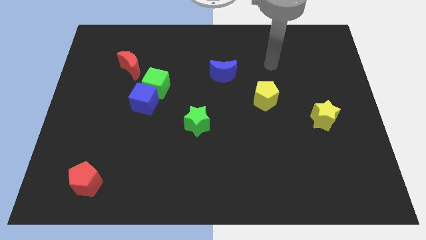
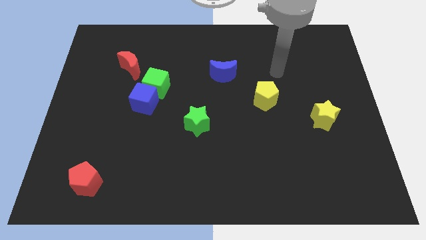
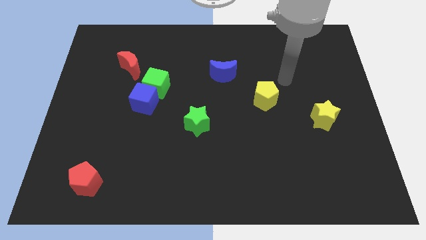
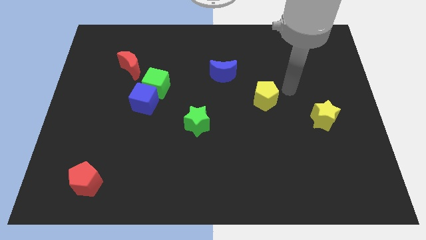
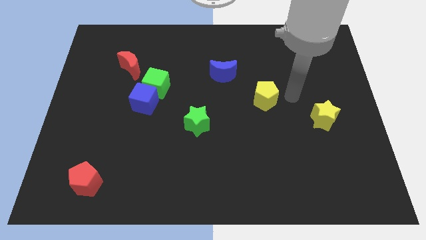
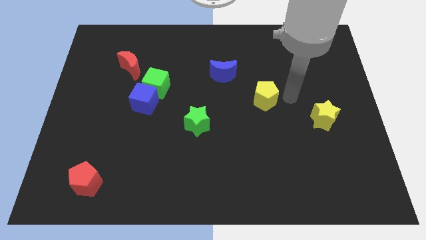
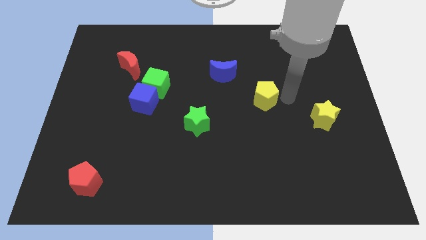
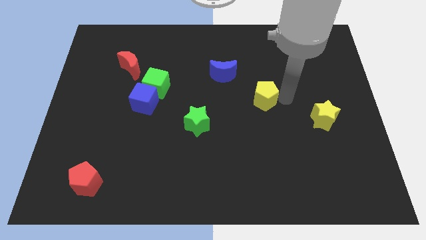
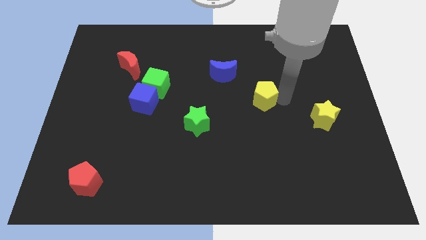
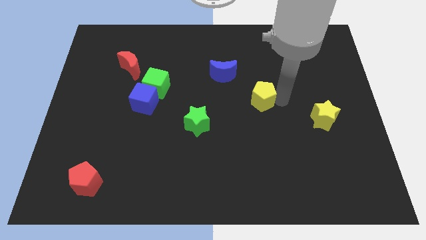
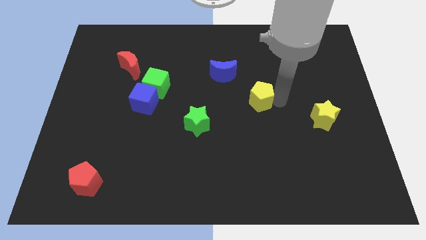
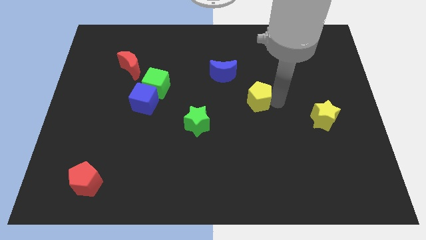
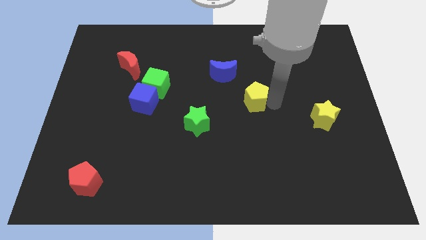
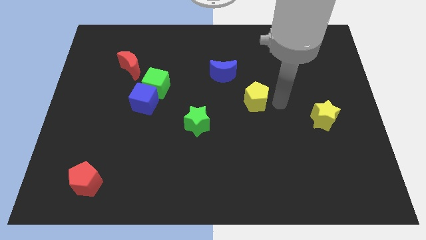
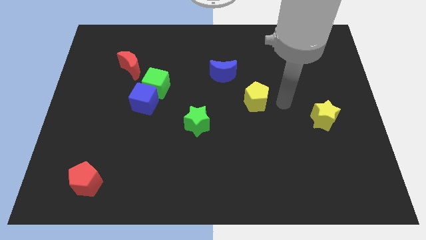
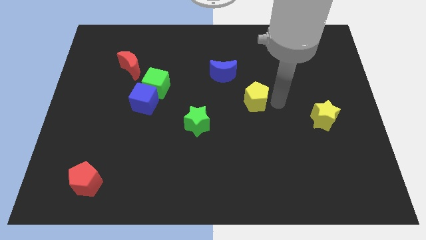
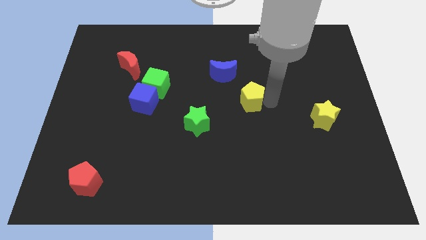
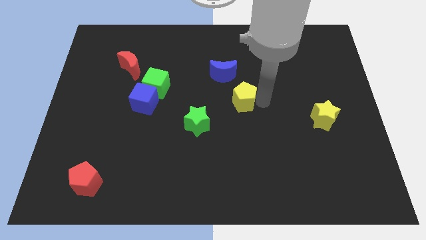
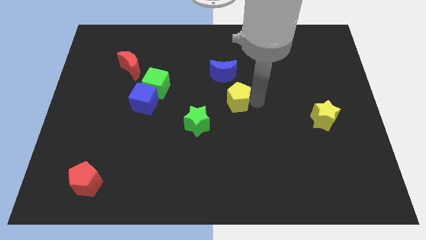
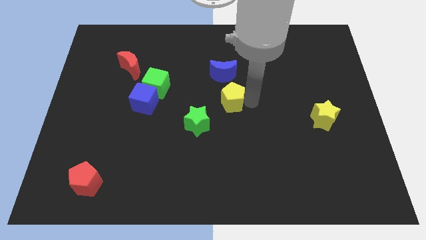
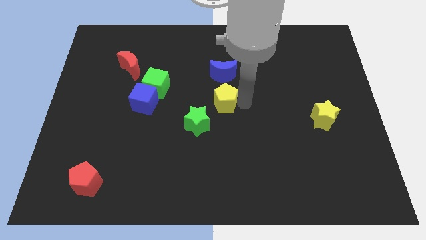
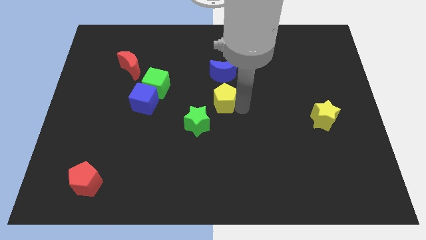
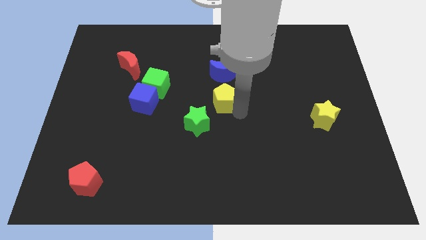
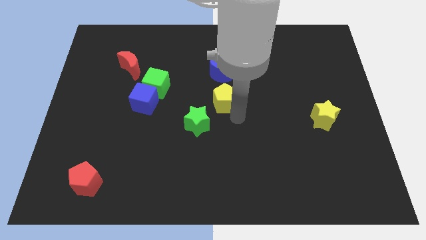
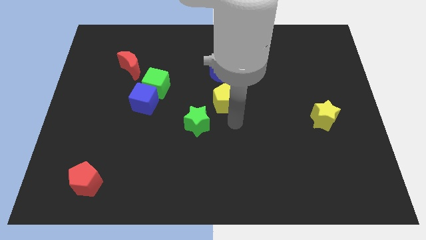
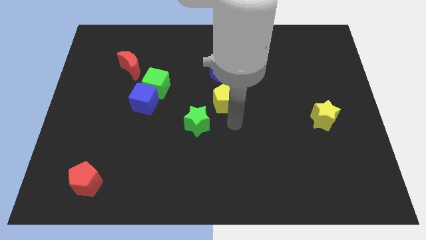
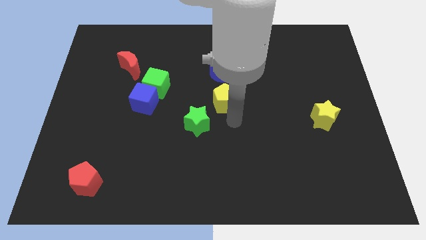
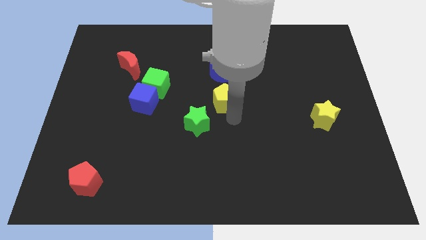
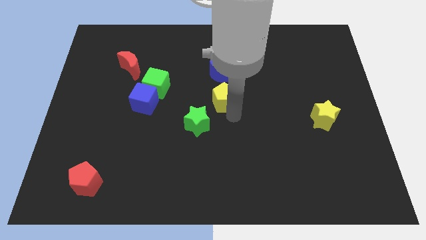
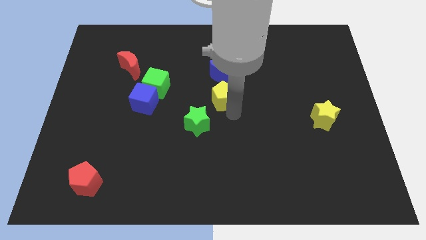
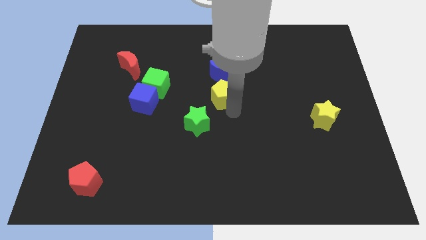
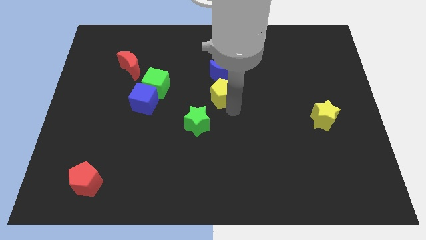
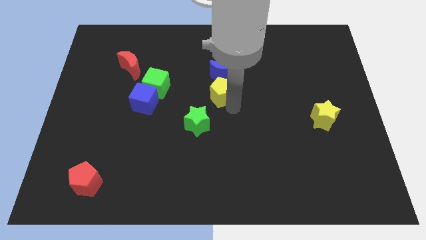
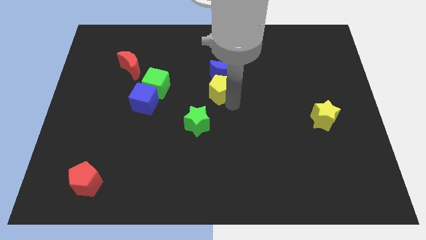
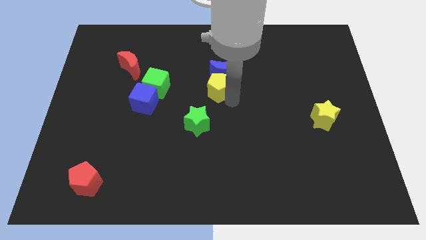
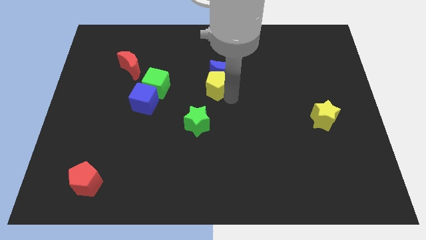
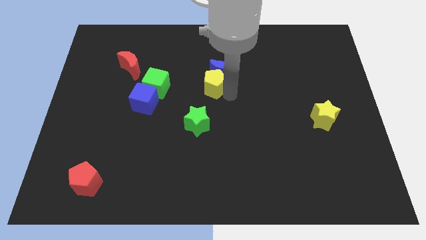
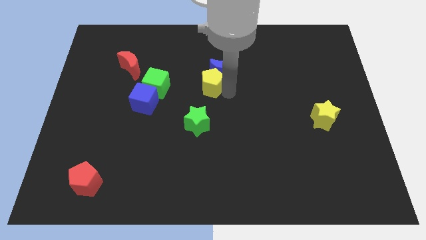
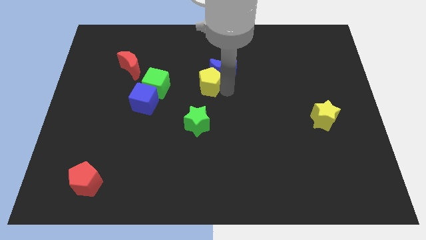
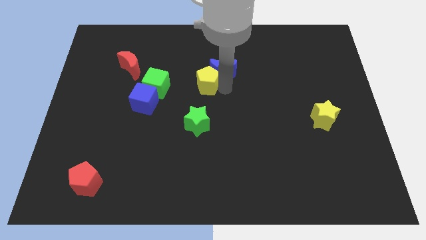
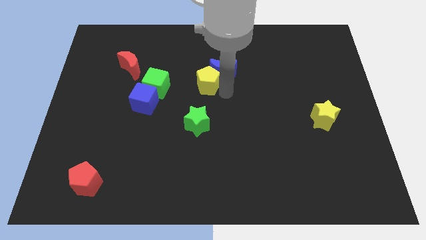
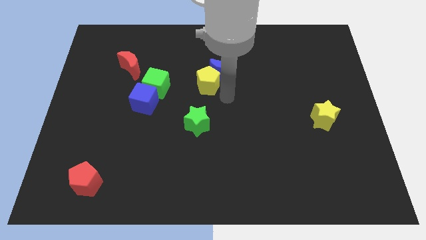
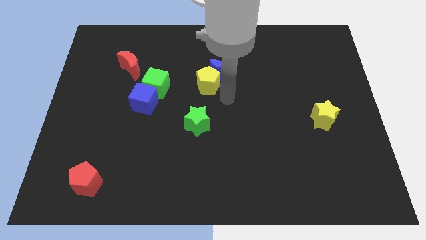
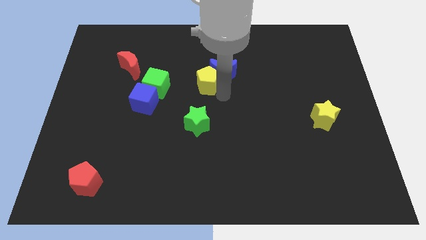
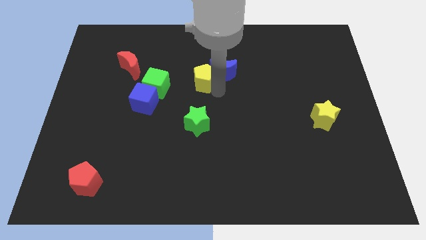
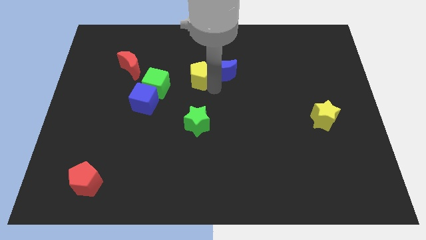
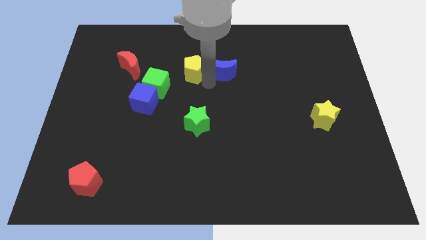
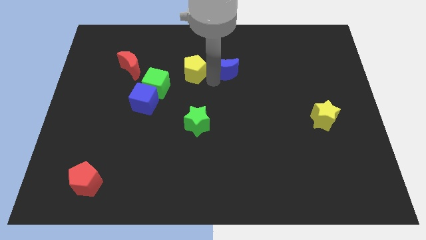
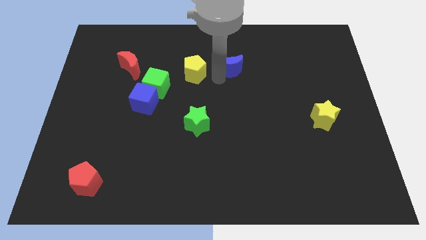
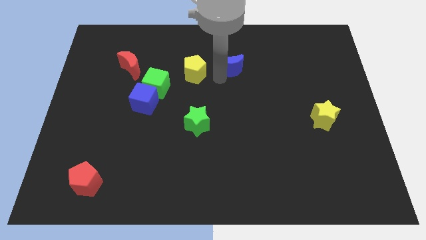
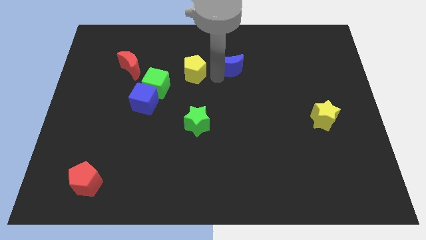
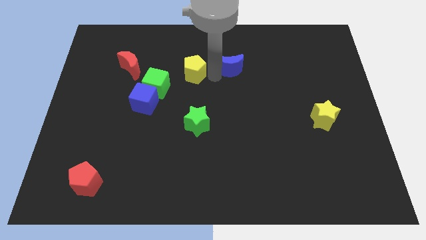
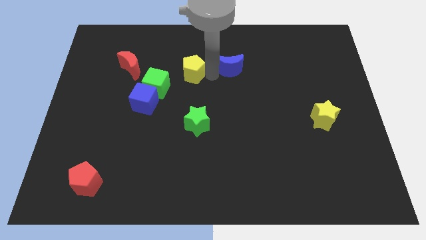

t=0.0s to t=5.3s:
put the yellow pentagon right of the red moon

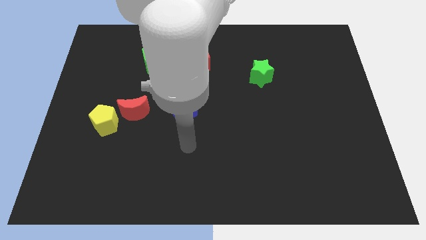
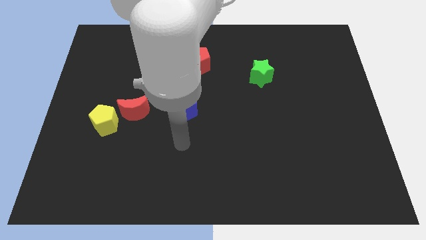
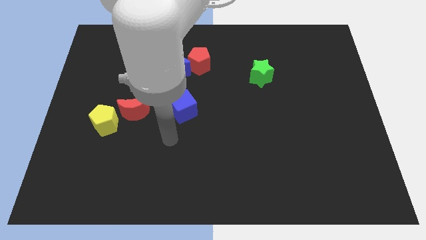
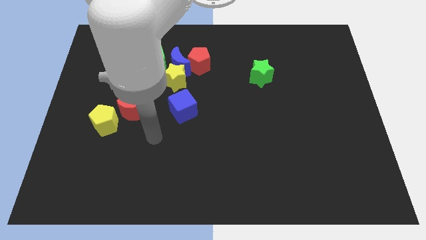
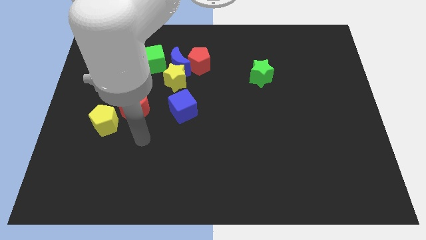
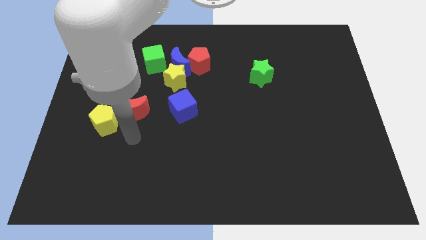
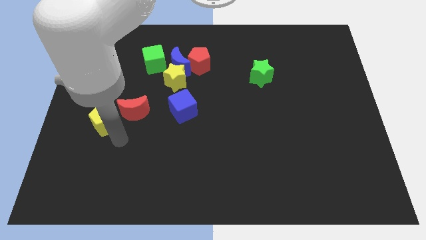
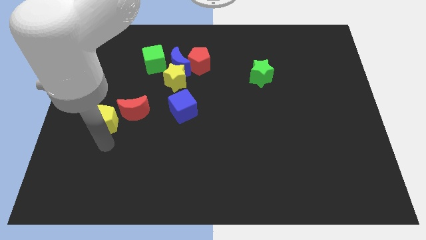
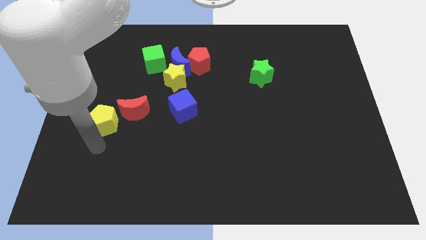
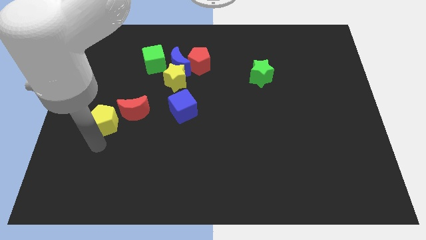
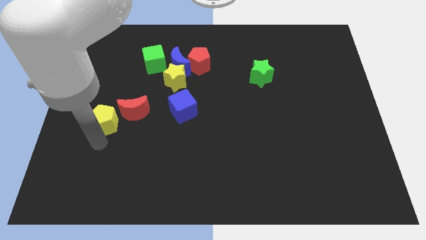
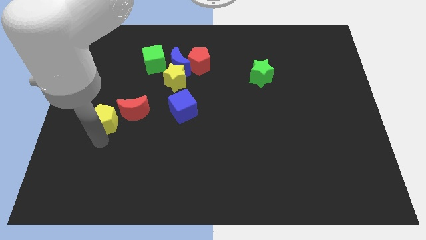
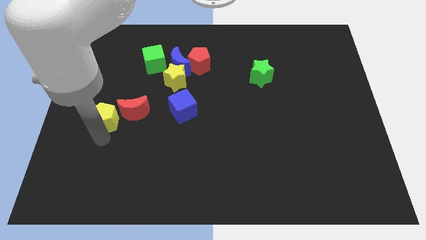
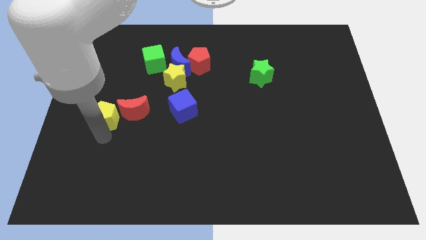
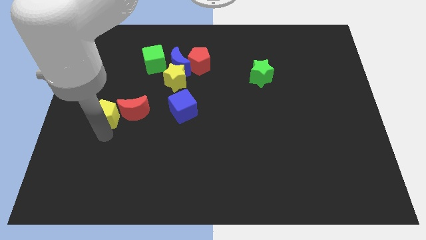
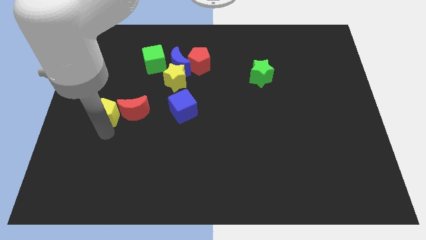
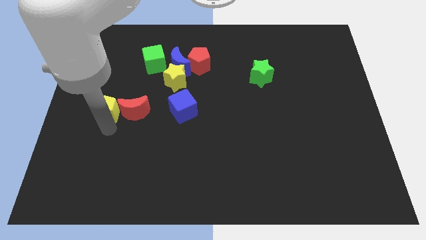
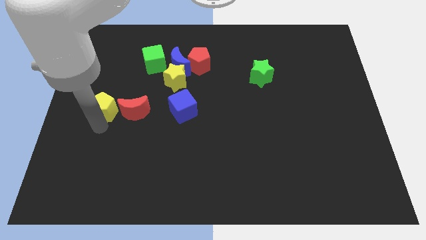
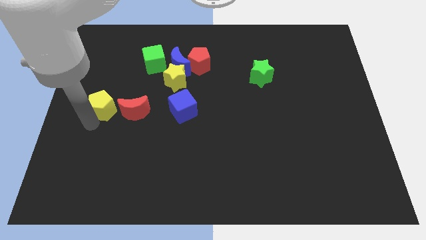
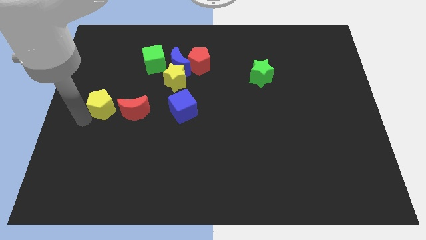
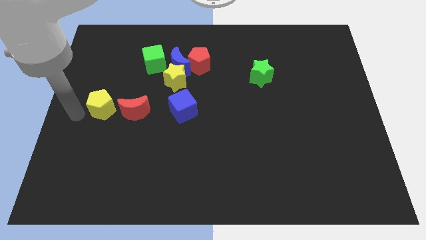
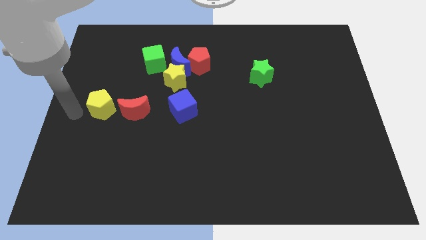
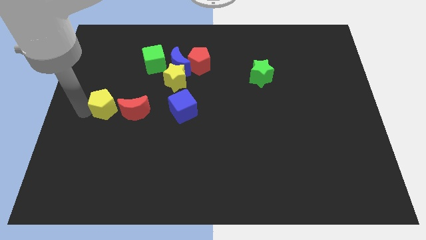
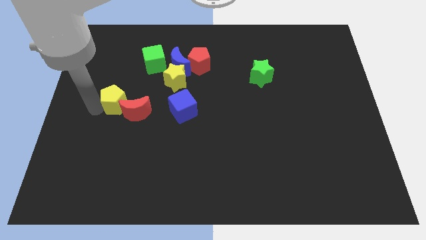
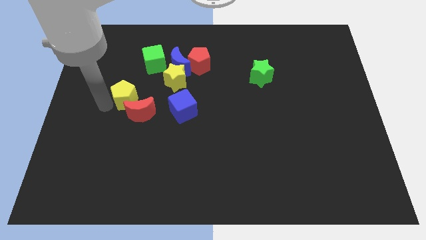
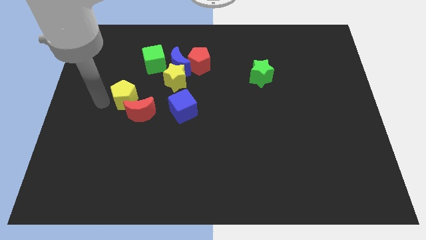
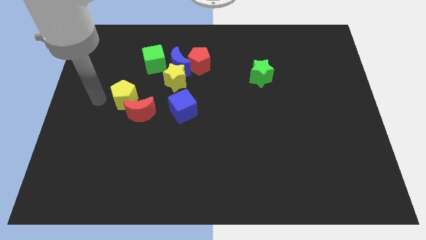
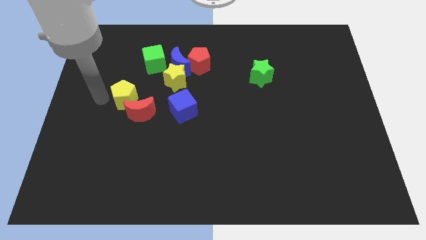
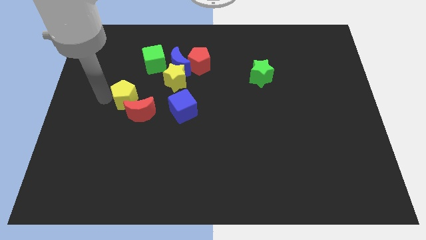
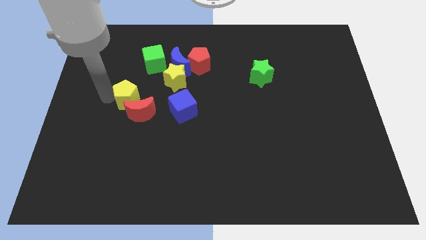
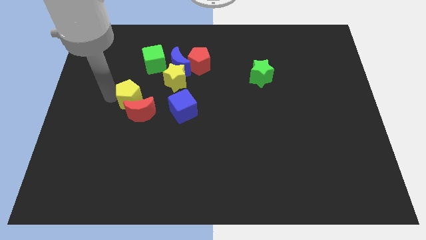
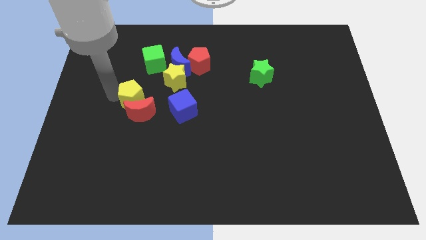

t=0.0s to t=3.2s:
push the yellow pentagon to the bottom left of the yellow star
